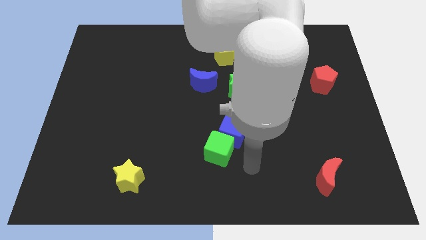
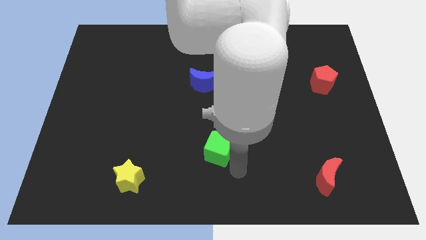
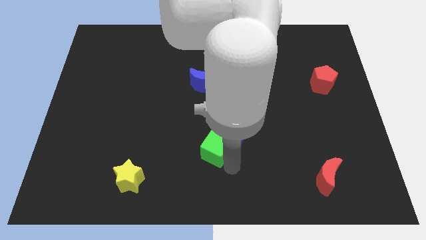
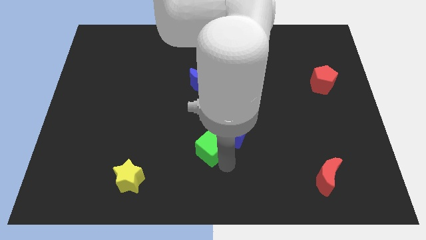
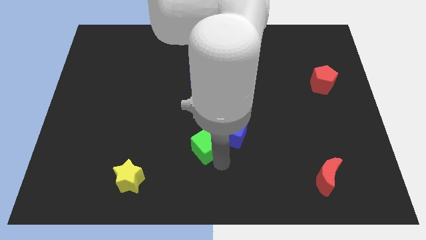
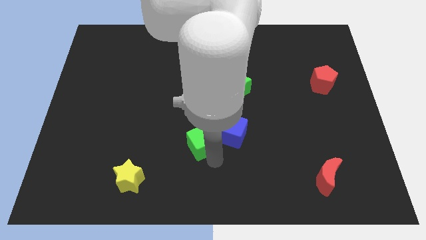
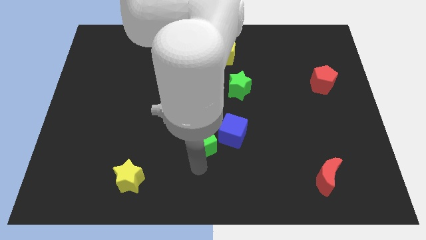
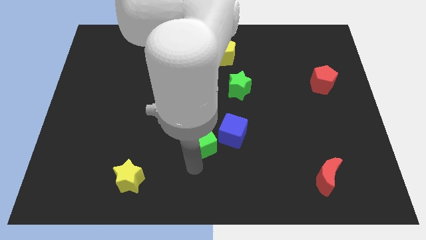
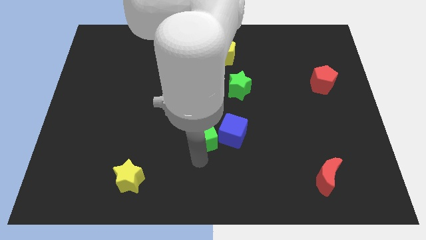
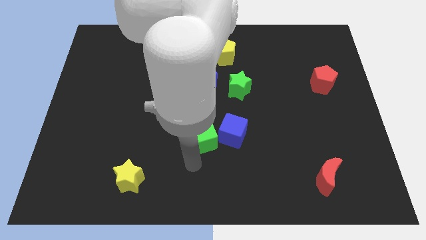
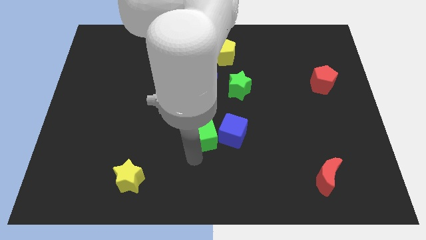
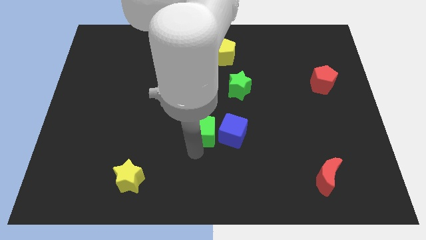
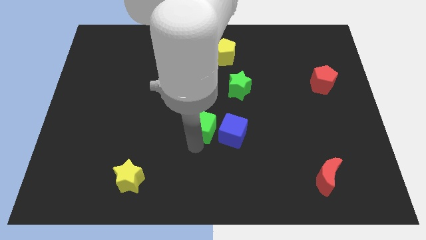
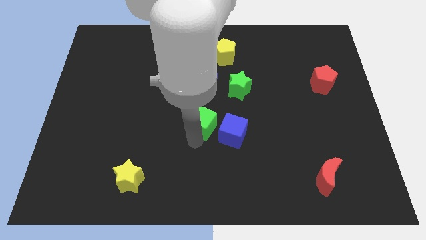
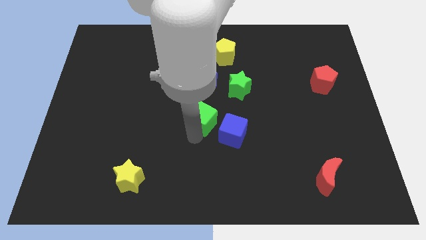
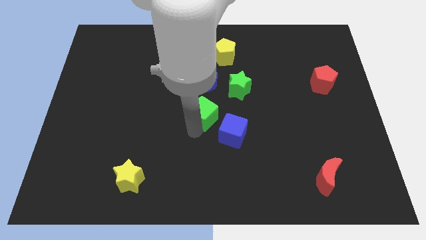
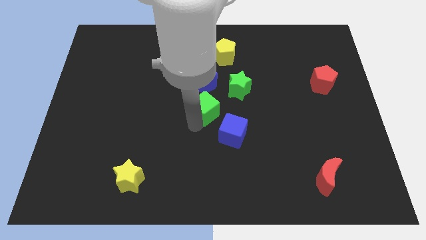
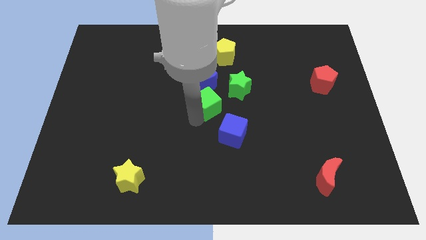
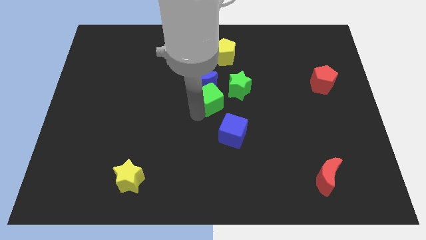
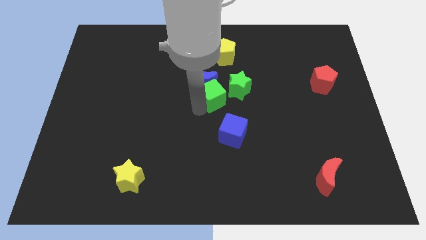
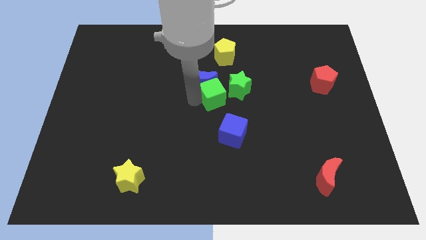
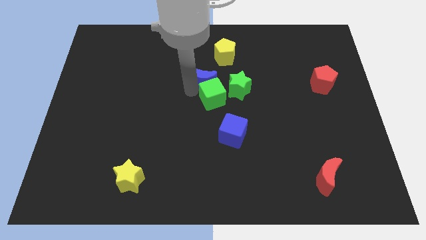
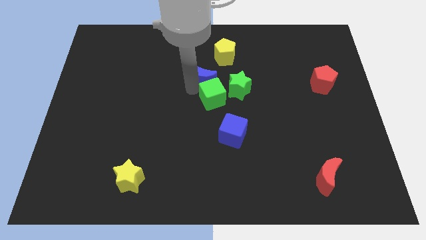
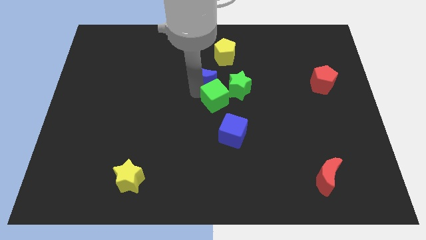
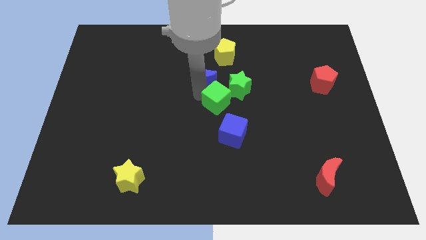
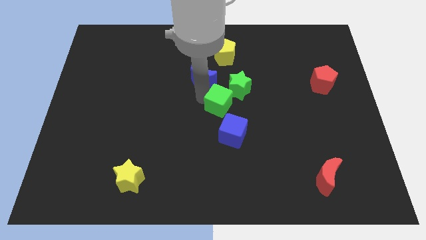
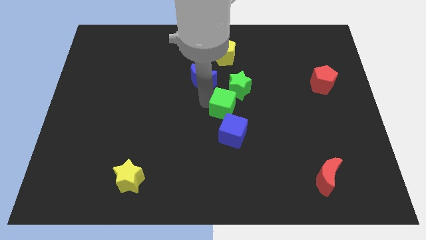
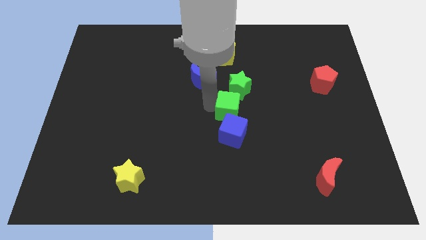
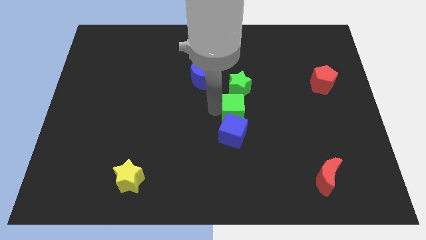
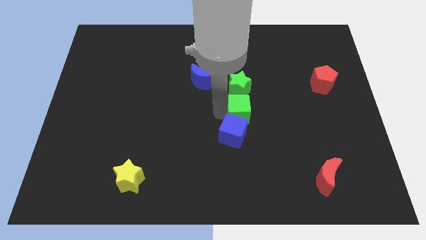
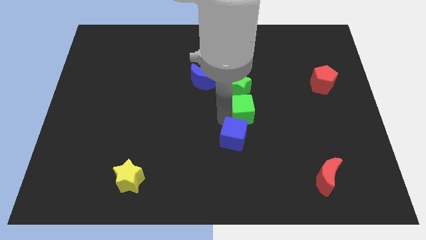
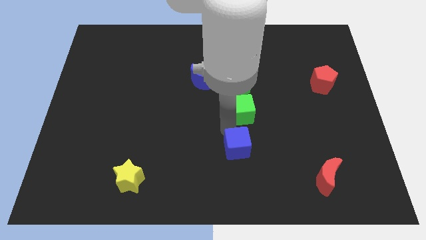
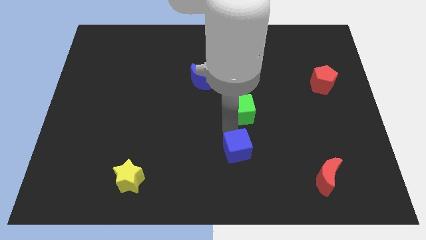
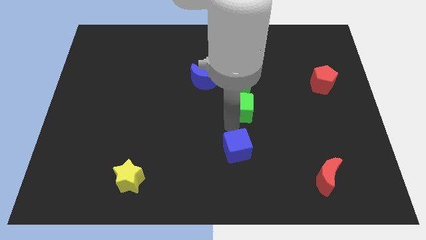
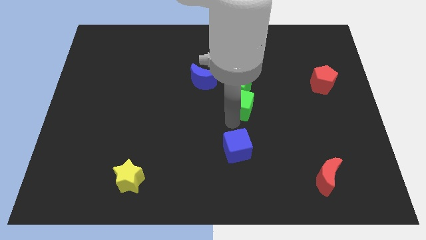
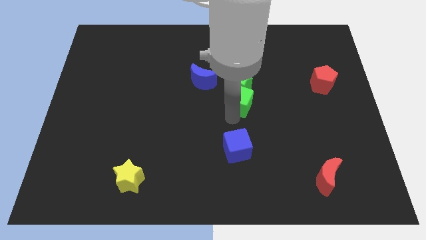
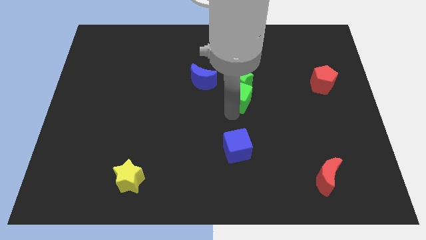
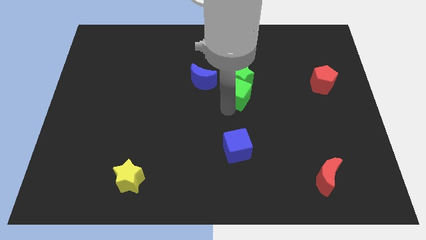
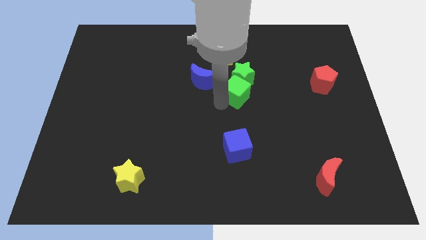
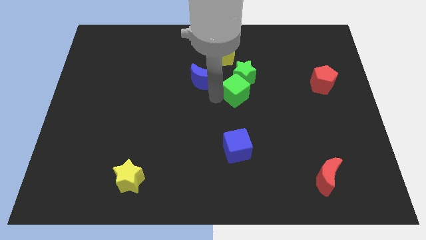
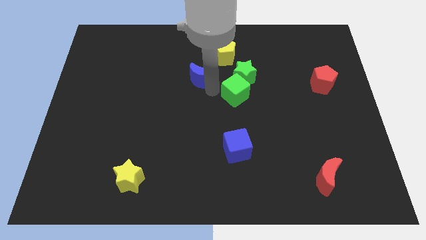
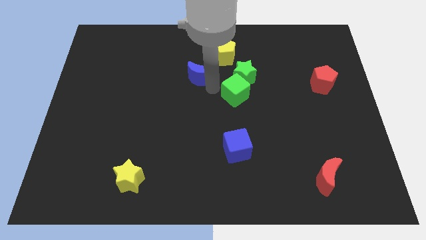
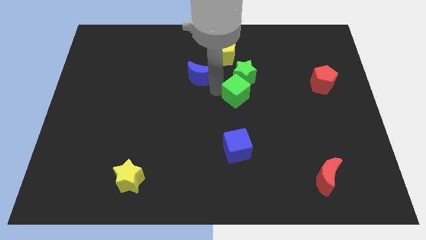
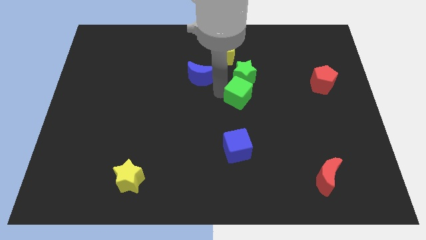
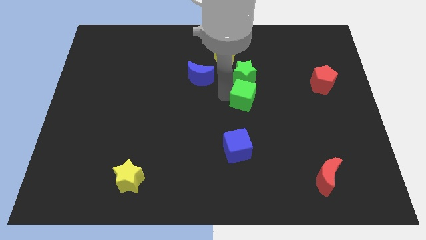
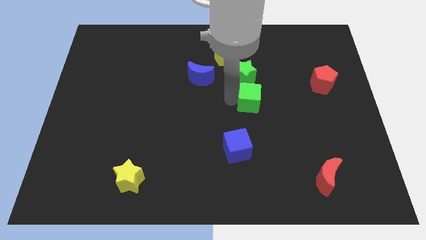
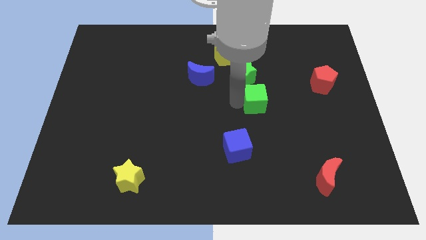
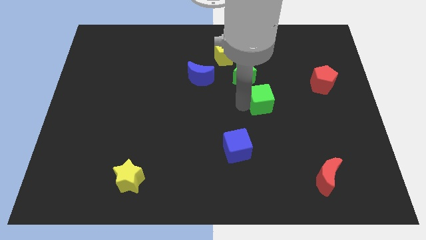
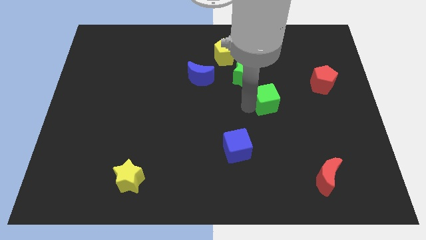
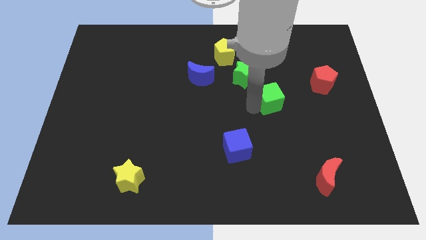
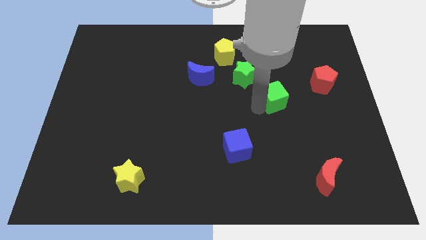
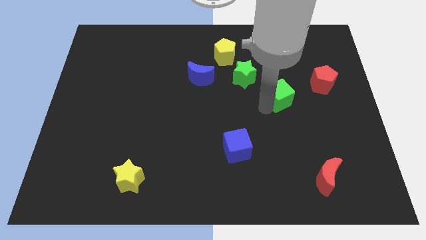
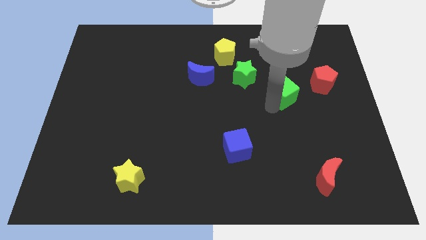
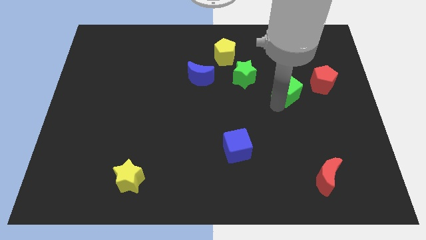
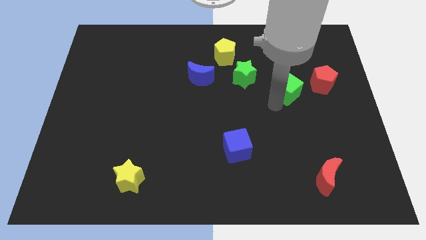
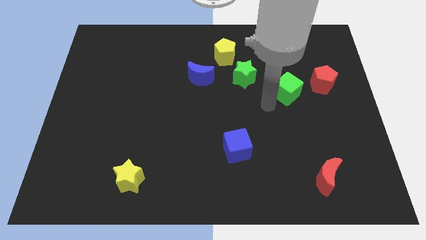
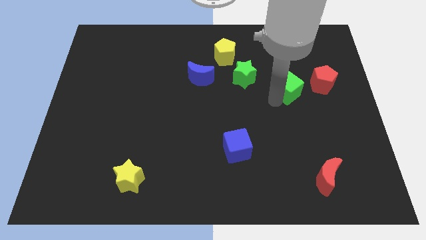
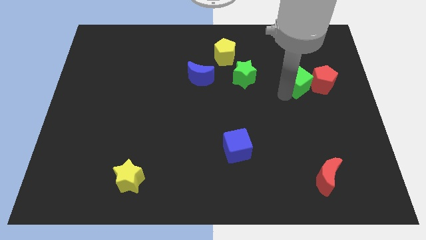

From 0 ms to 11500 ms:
slide the green cube to the top left side of the red pentagon

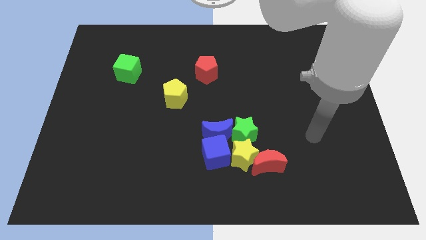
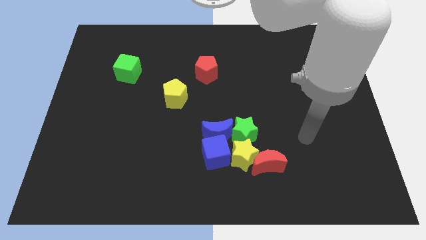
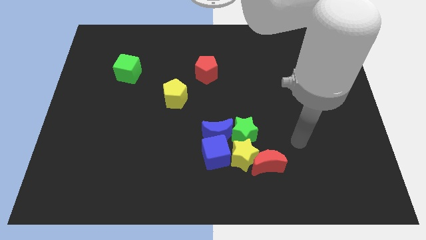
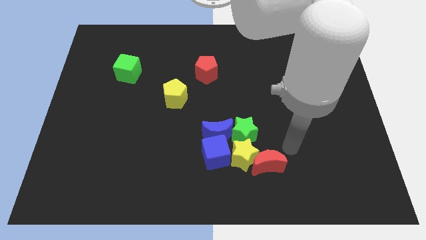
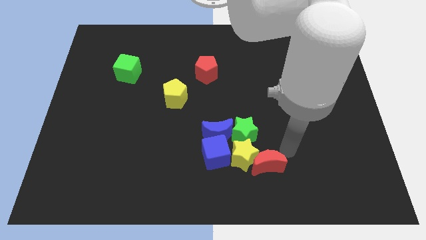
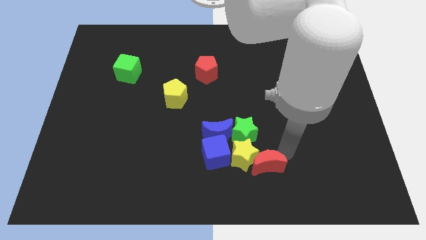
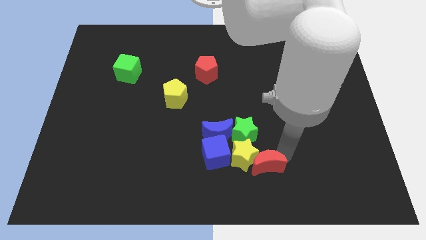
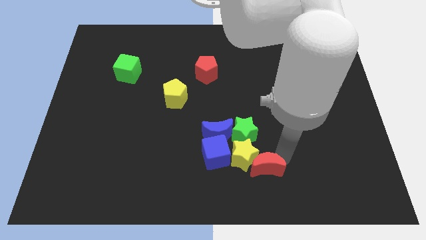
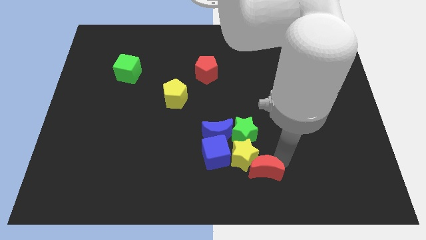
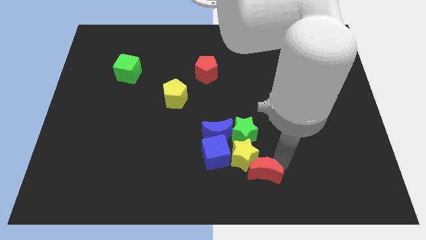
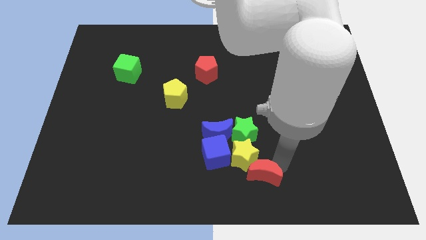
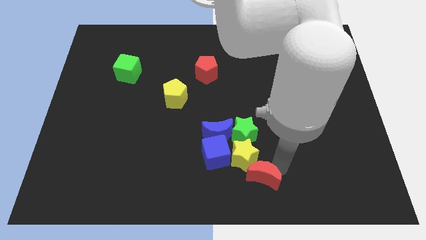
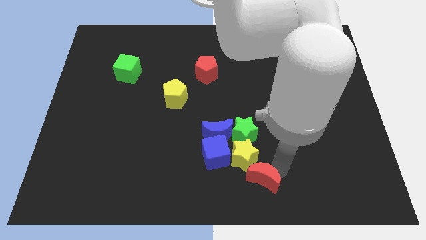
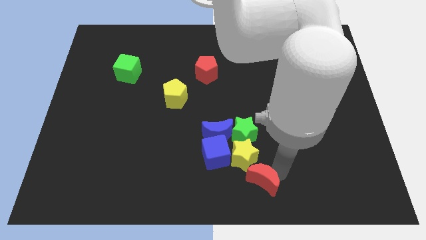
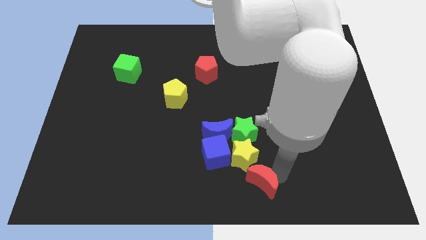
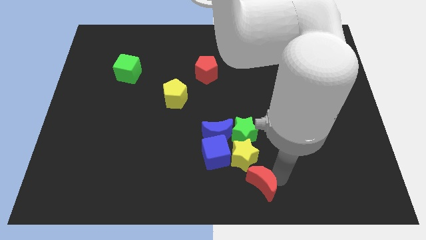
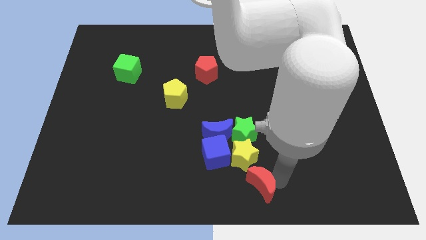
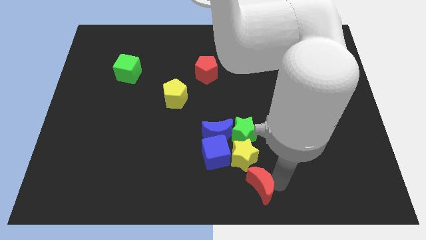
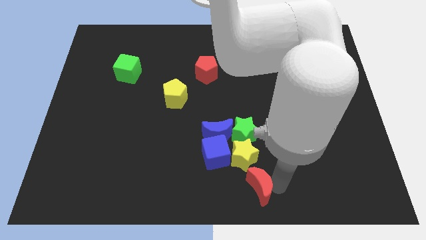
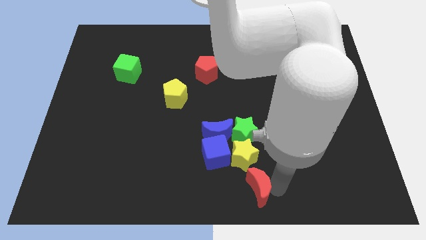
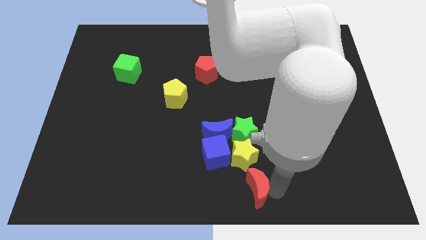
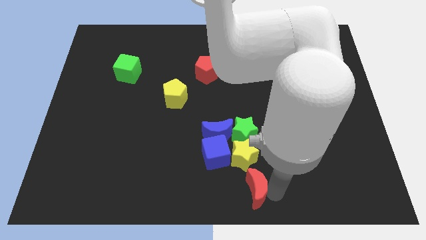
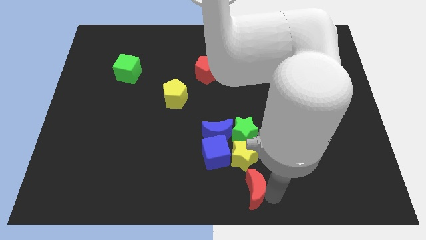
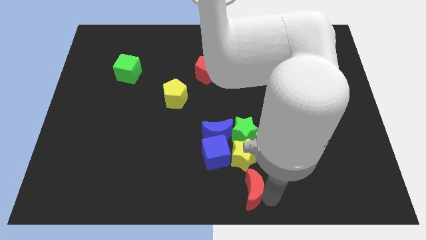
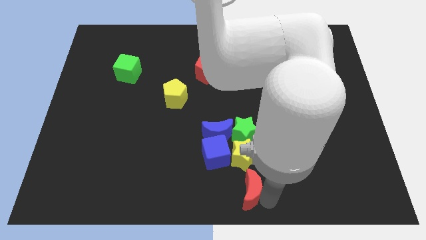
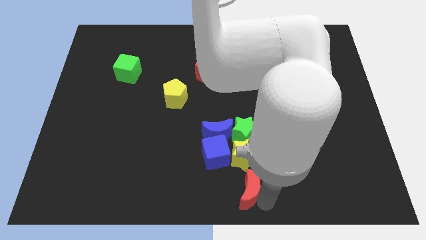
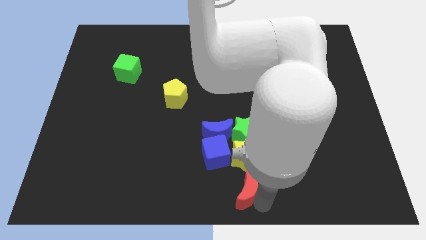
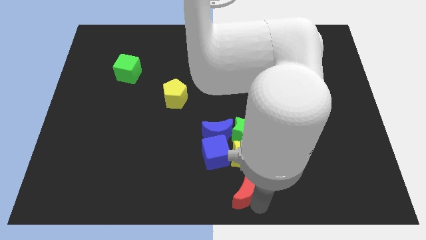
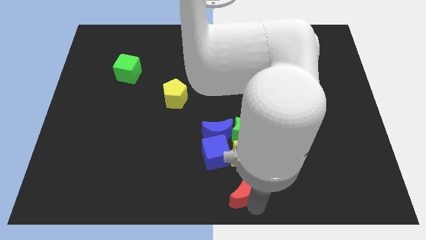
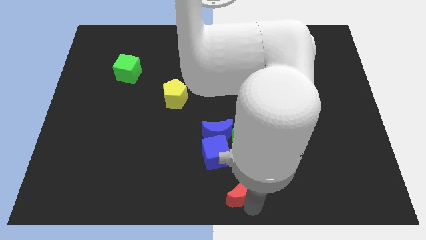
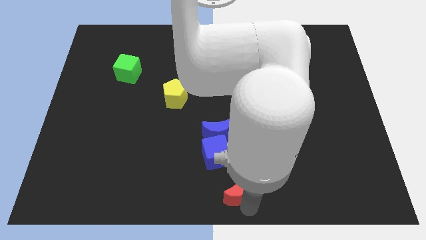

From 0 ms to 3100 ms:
slide the red moon to the bottom left of the yellow star
